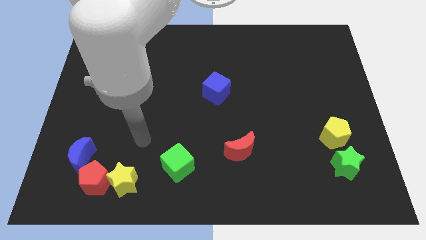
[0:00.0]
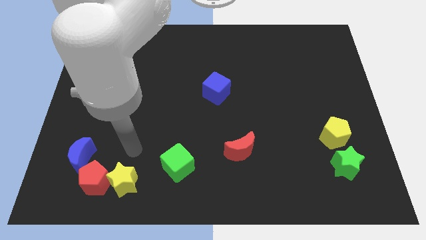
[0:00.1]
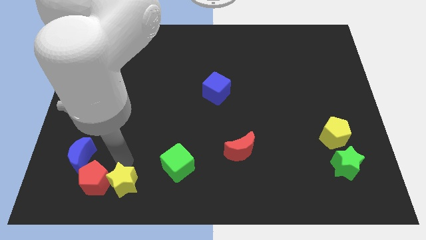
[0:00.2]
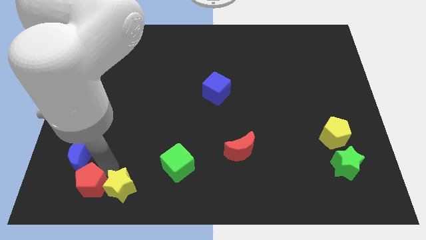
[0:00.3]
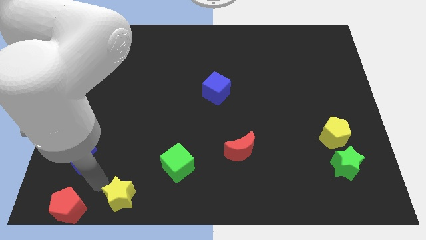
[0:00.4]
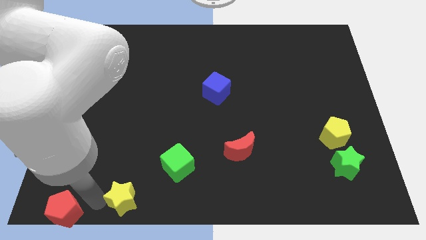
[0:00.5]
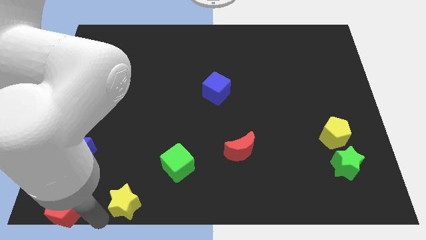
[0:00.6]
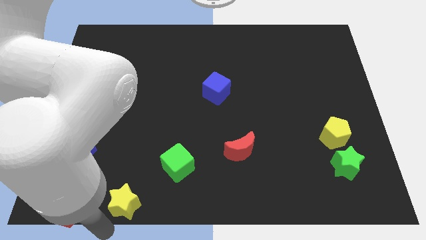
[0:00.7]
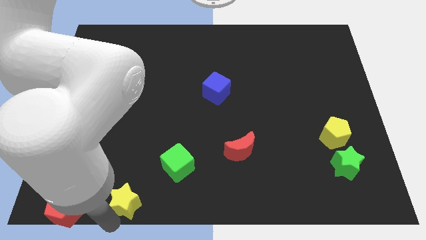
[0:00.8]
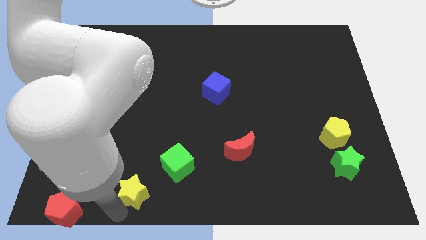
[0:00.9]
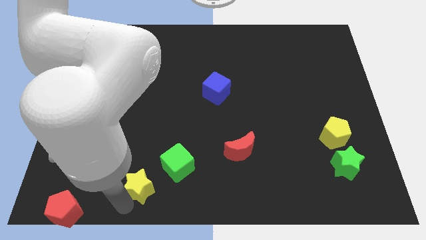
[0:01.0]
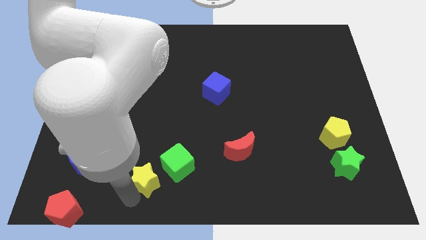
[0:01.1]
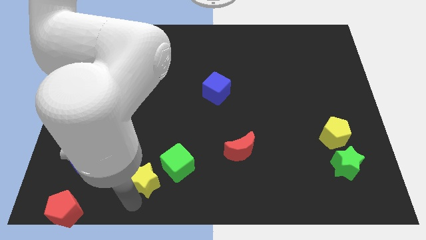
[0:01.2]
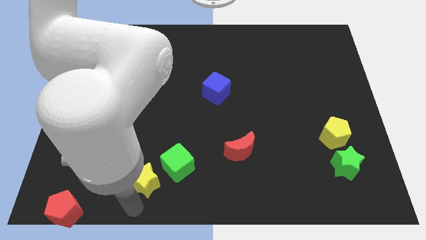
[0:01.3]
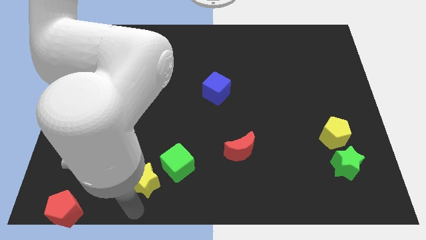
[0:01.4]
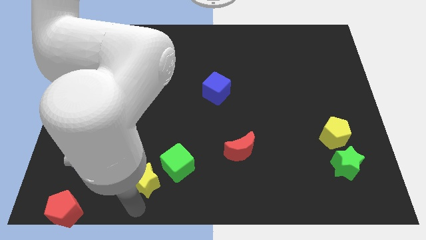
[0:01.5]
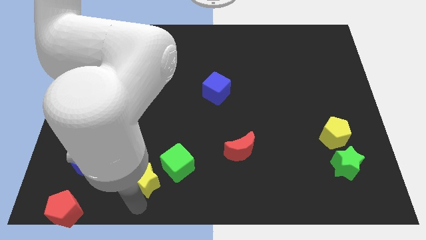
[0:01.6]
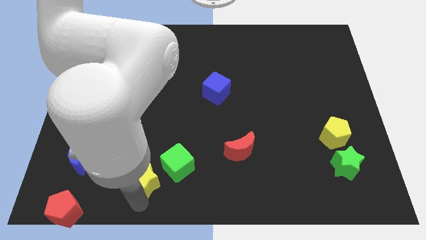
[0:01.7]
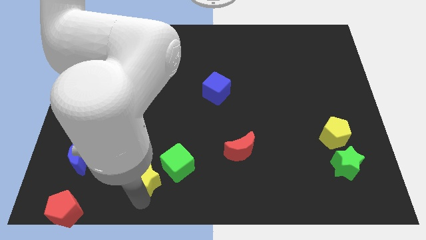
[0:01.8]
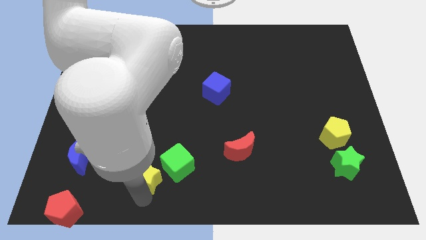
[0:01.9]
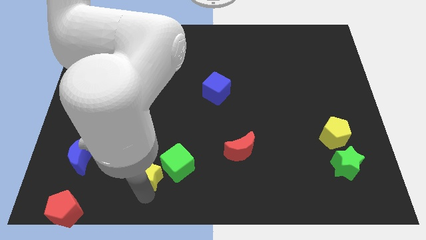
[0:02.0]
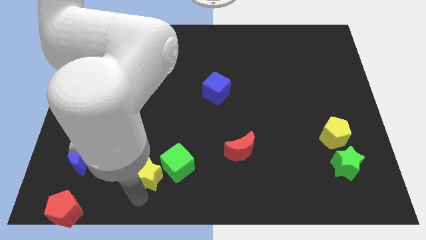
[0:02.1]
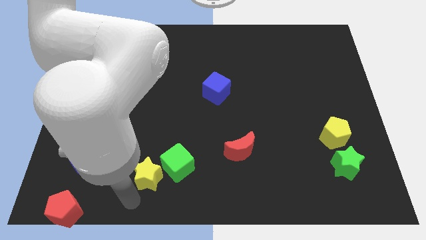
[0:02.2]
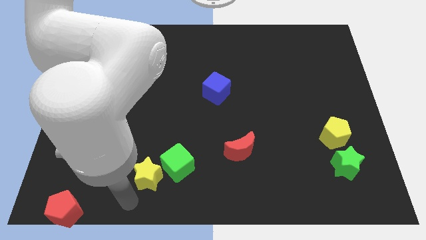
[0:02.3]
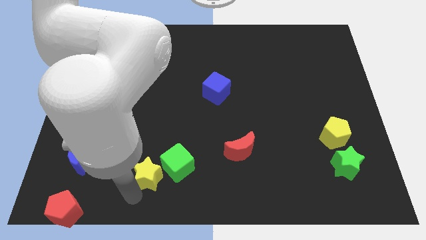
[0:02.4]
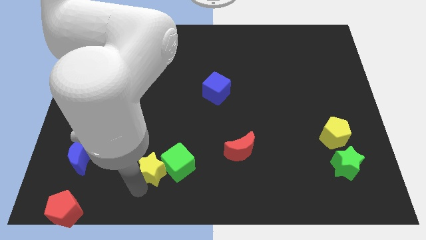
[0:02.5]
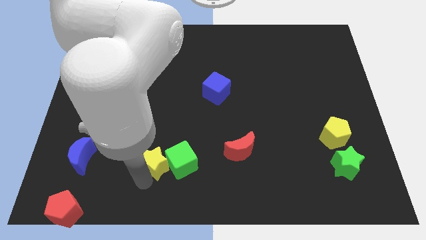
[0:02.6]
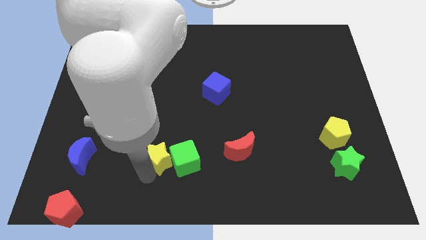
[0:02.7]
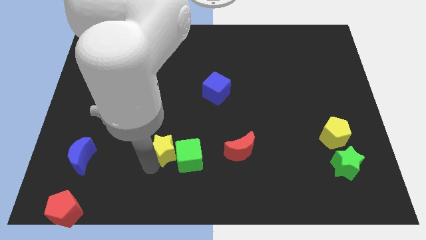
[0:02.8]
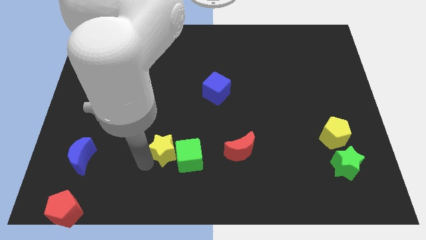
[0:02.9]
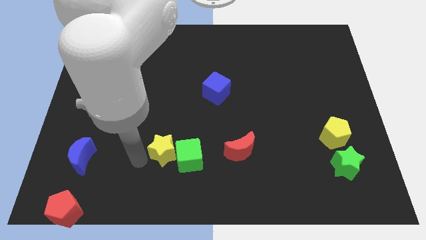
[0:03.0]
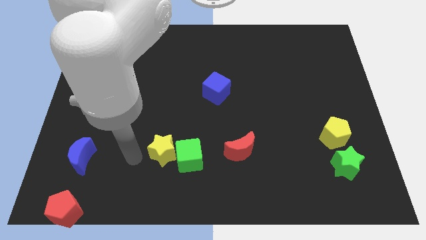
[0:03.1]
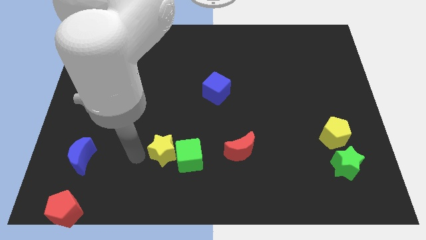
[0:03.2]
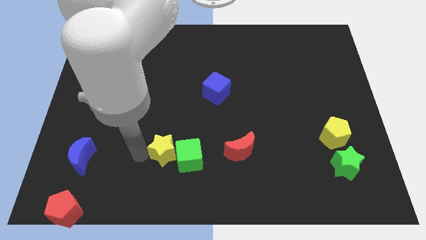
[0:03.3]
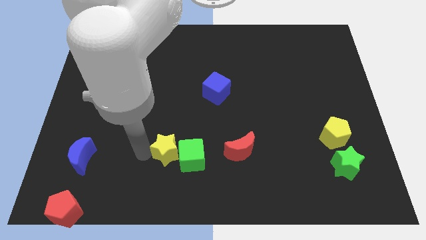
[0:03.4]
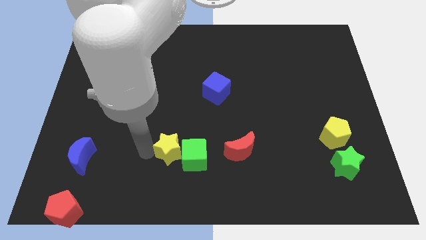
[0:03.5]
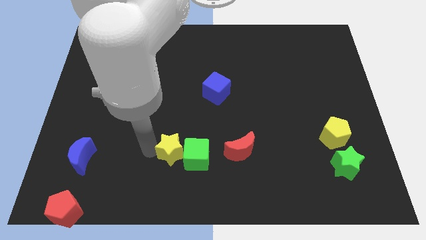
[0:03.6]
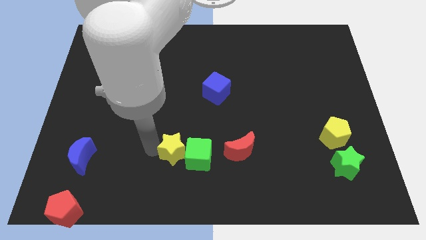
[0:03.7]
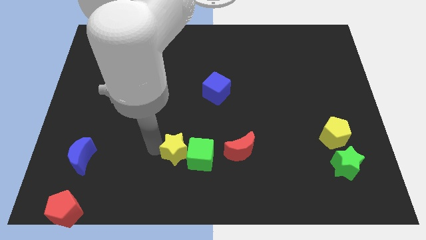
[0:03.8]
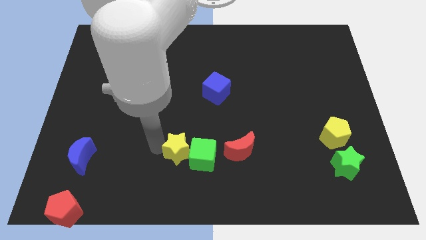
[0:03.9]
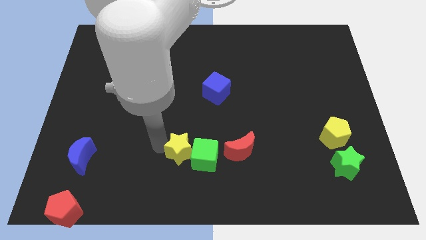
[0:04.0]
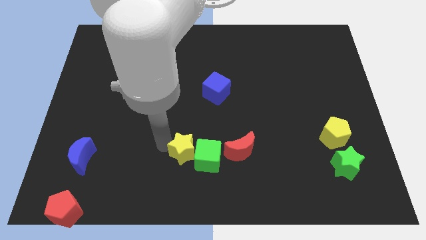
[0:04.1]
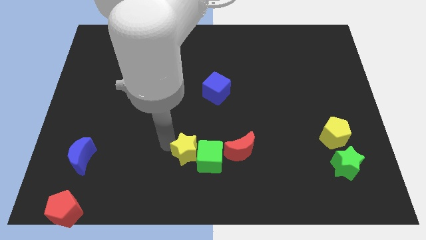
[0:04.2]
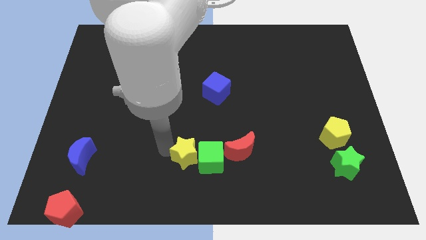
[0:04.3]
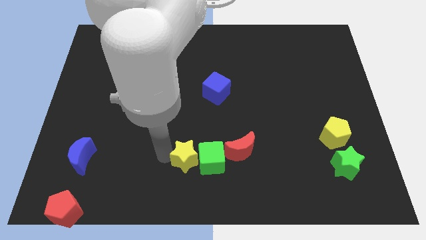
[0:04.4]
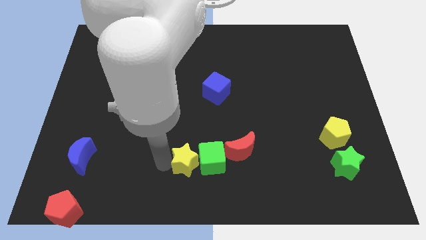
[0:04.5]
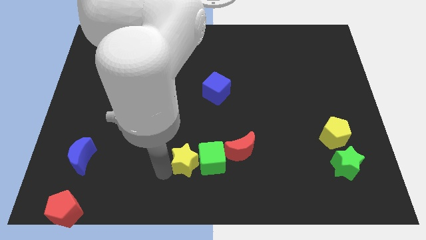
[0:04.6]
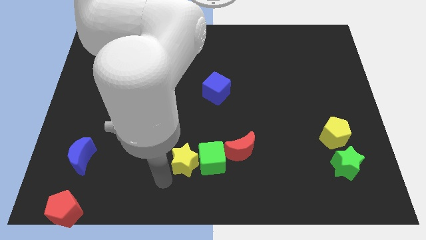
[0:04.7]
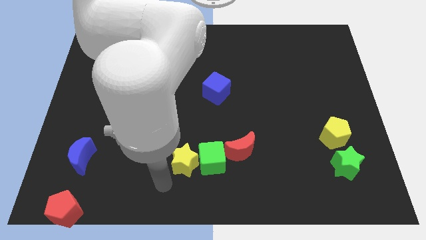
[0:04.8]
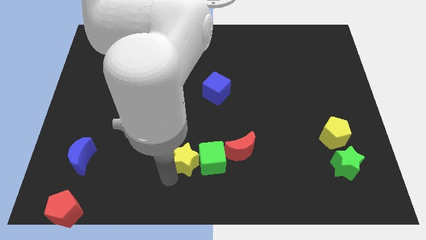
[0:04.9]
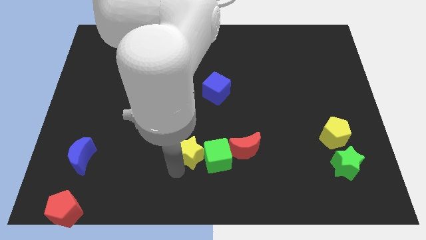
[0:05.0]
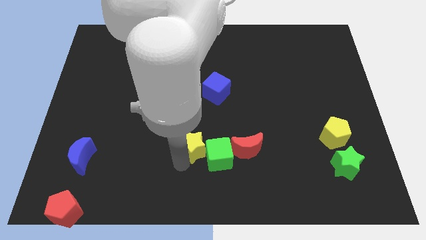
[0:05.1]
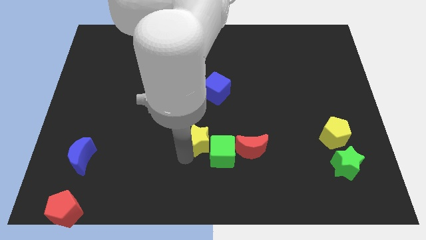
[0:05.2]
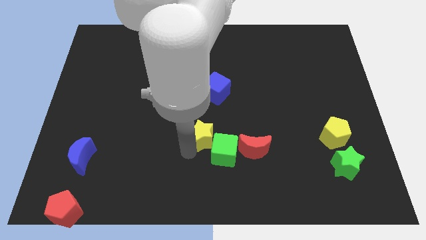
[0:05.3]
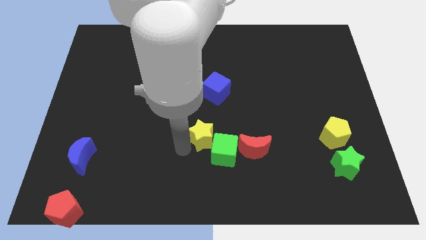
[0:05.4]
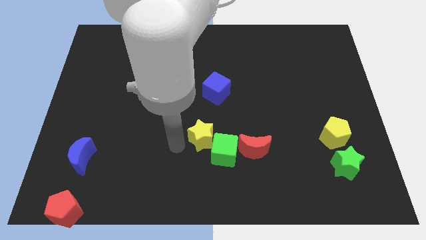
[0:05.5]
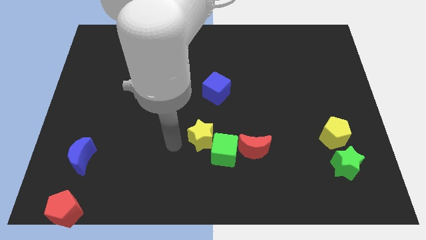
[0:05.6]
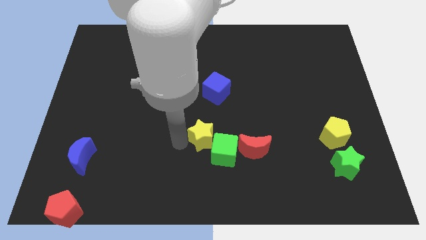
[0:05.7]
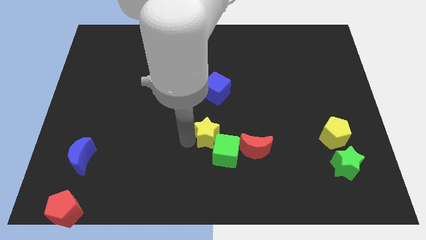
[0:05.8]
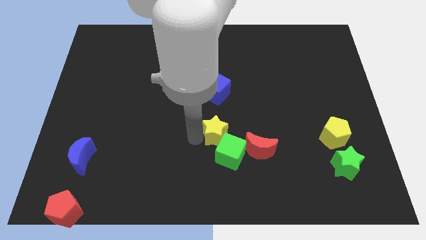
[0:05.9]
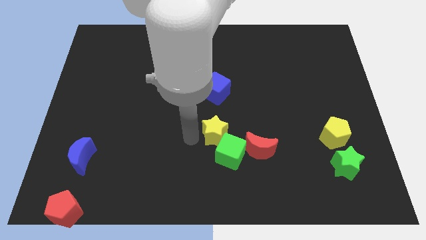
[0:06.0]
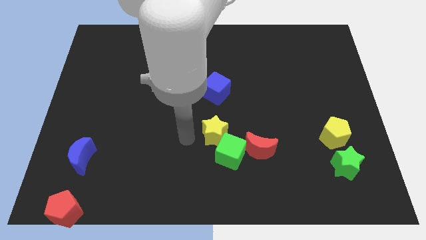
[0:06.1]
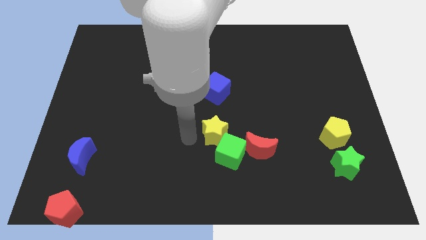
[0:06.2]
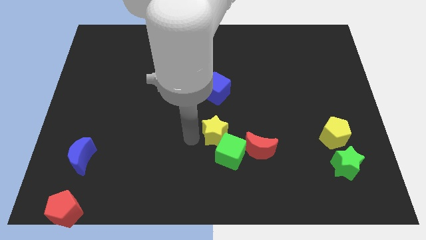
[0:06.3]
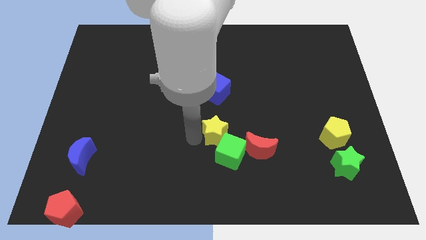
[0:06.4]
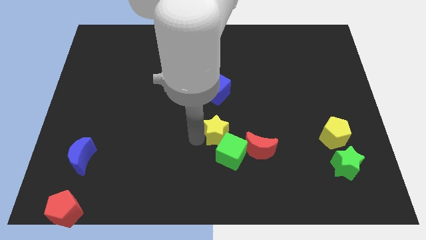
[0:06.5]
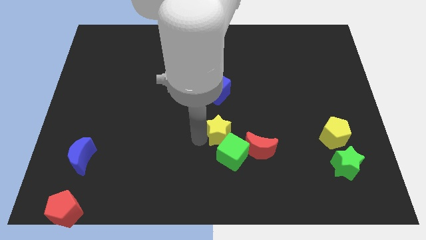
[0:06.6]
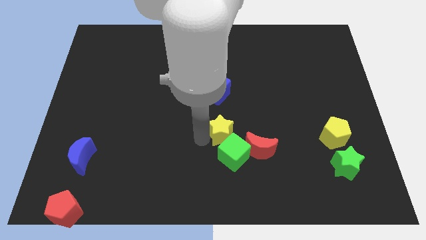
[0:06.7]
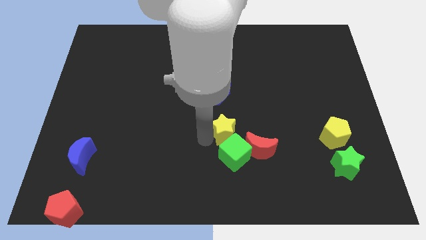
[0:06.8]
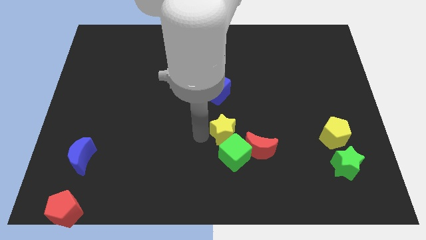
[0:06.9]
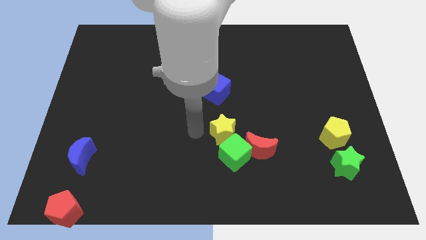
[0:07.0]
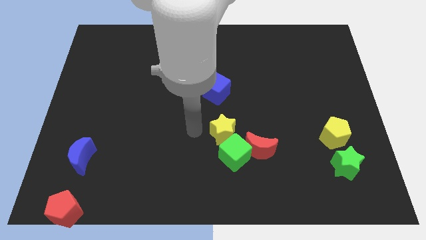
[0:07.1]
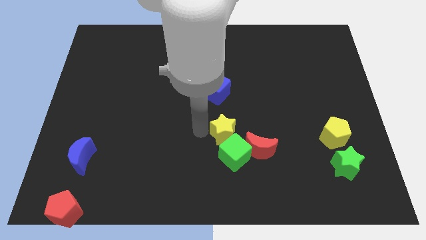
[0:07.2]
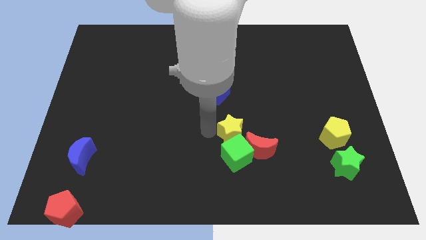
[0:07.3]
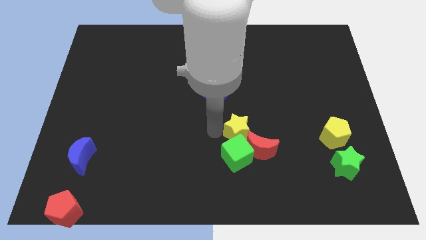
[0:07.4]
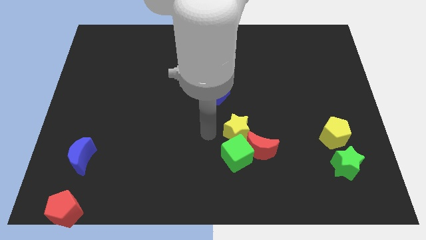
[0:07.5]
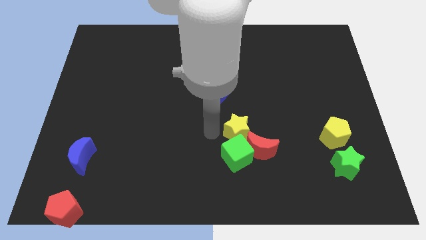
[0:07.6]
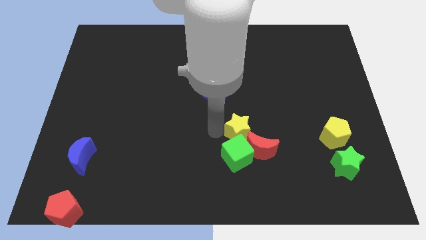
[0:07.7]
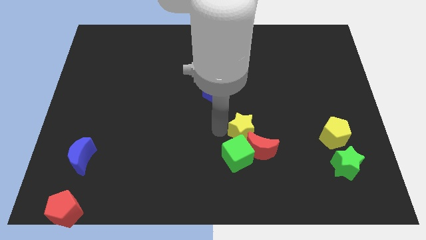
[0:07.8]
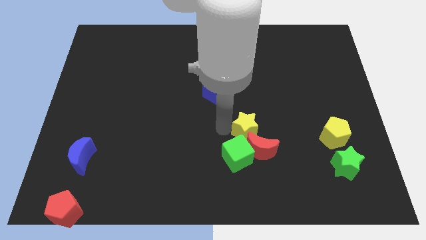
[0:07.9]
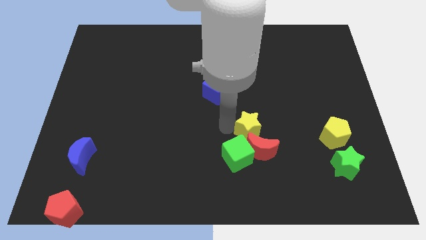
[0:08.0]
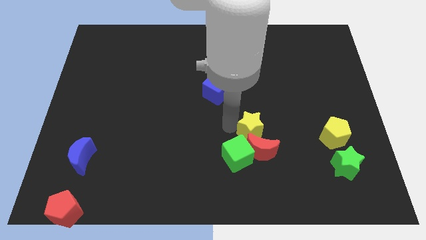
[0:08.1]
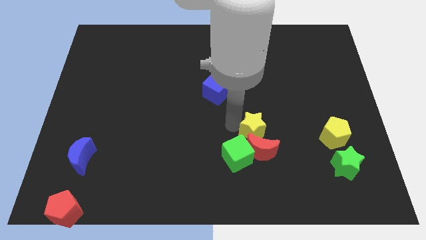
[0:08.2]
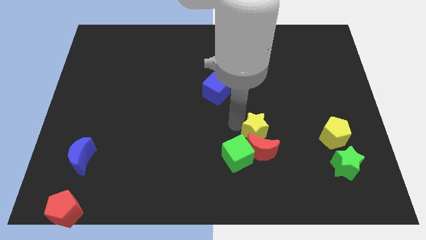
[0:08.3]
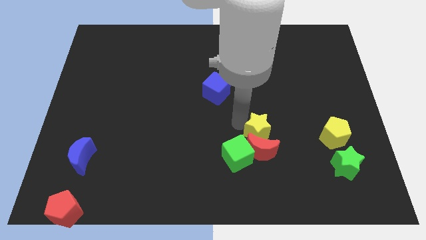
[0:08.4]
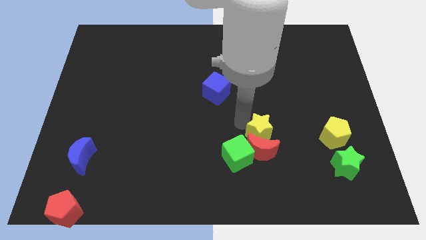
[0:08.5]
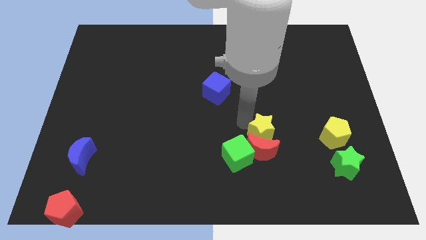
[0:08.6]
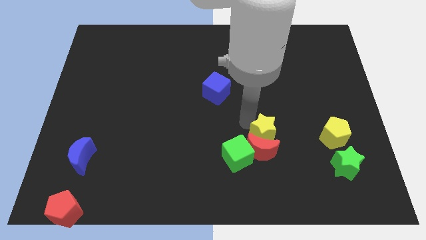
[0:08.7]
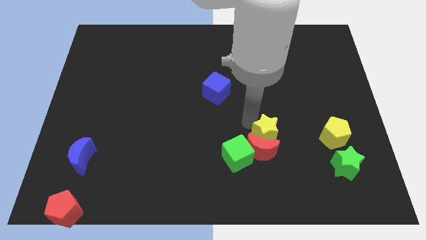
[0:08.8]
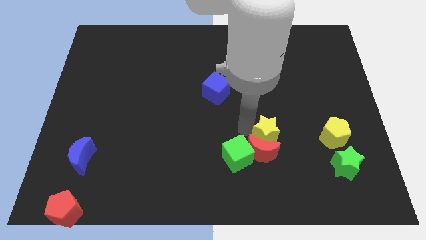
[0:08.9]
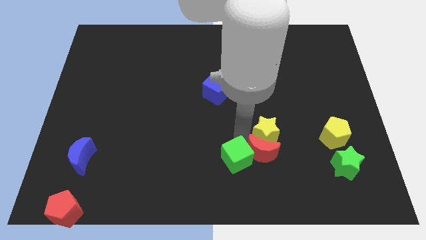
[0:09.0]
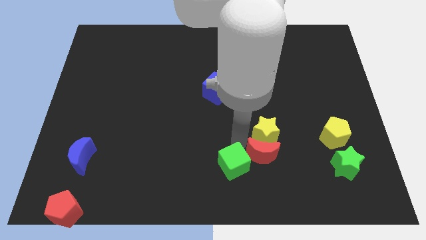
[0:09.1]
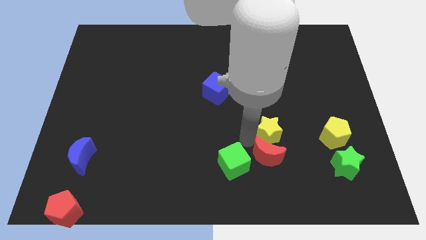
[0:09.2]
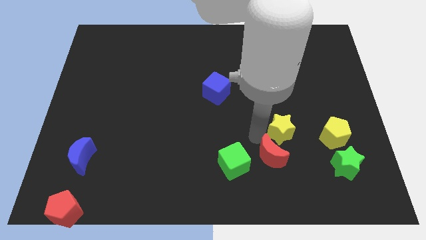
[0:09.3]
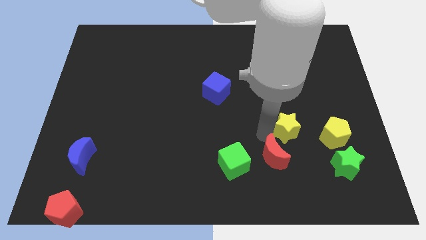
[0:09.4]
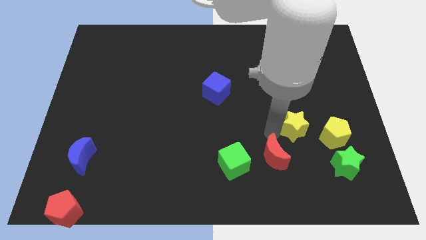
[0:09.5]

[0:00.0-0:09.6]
slide the yellow star to the top left of the yellow pentagon
